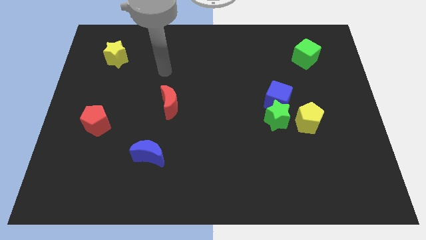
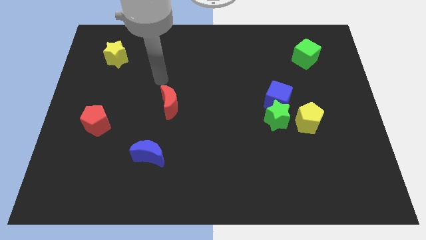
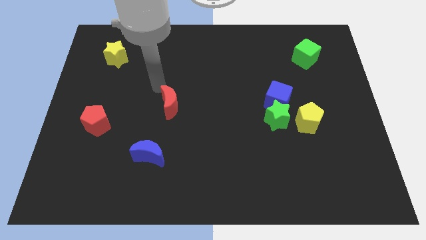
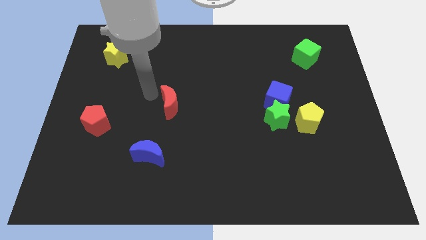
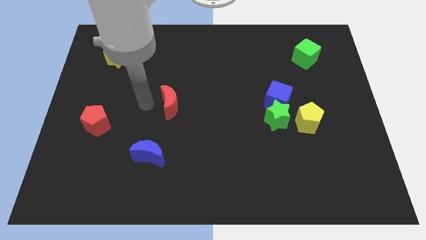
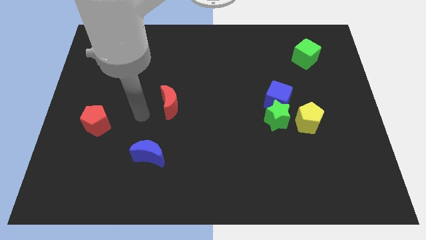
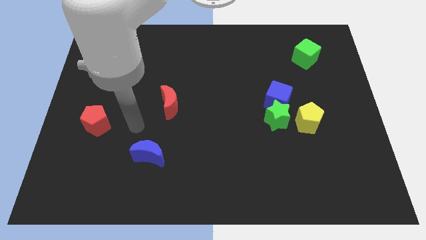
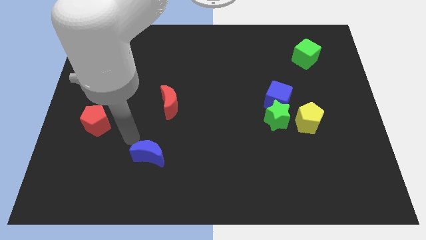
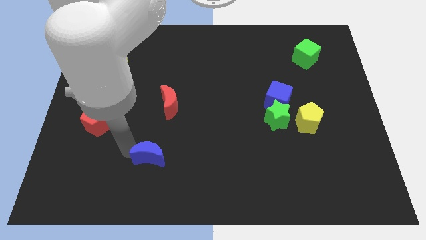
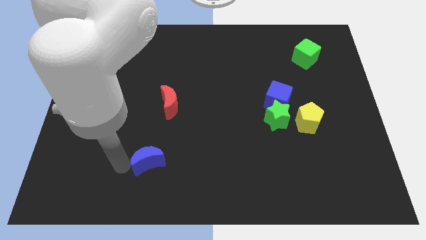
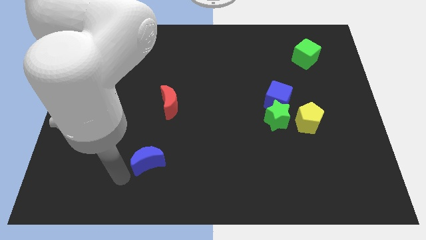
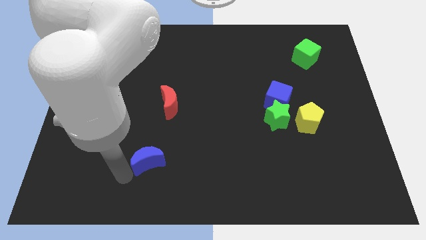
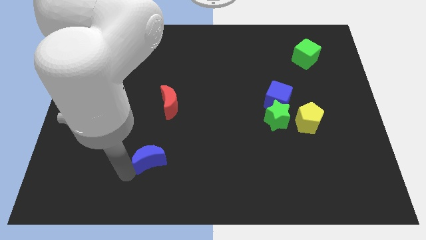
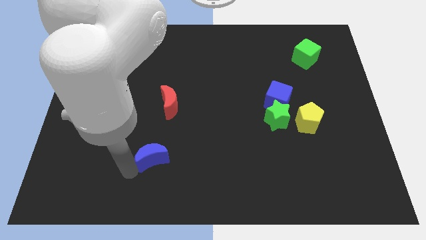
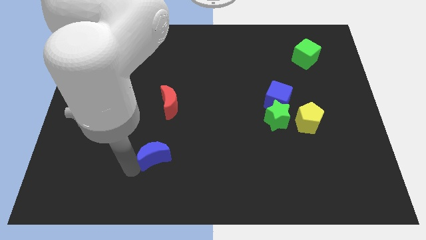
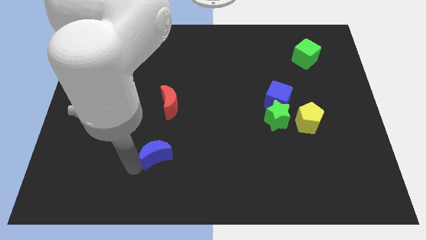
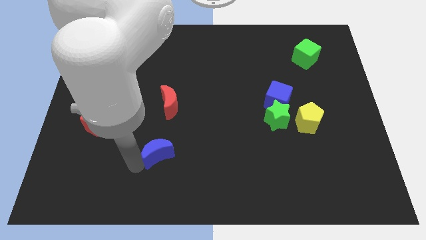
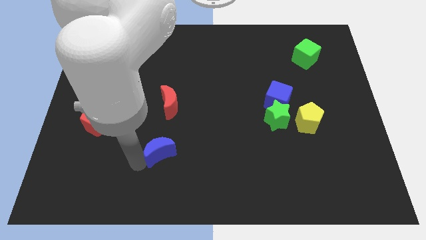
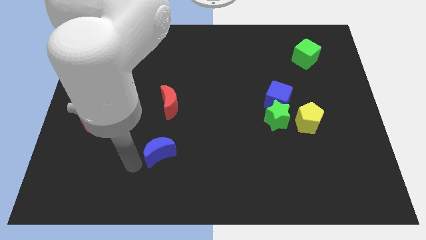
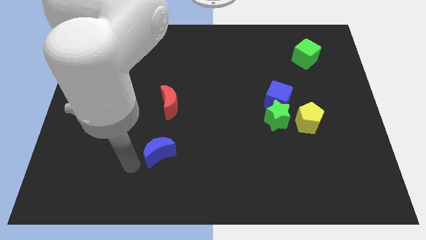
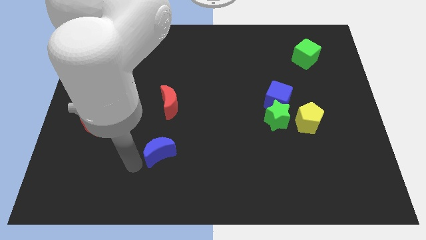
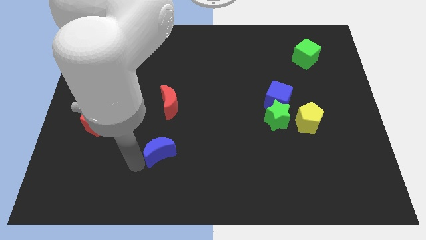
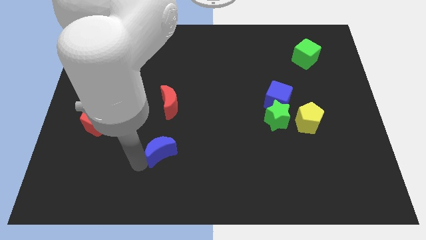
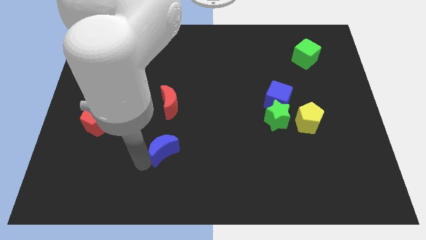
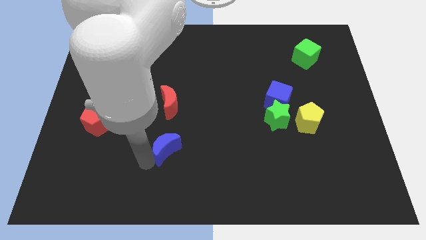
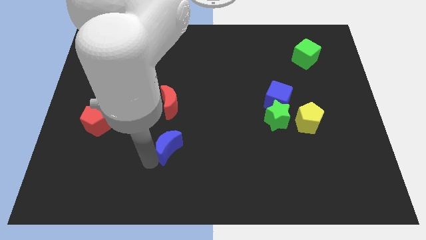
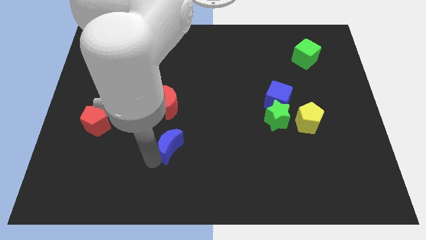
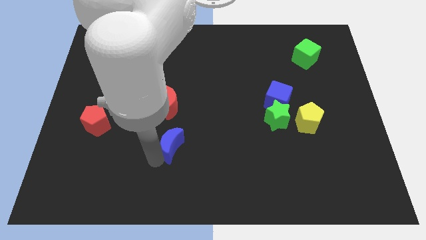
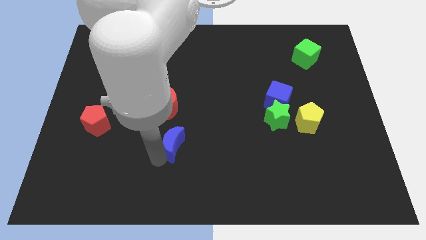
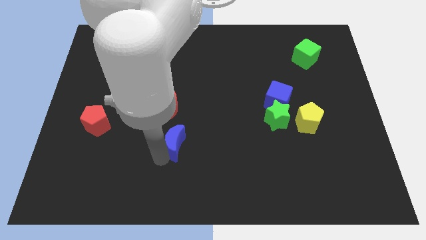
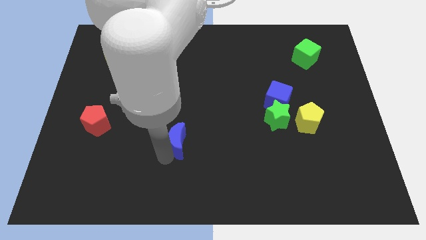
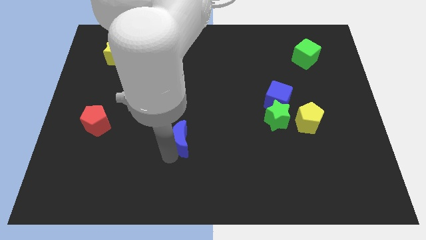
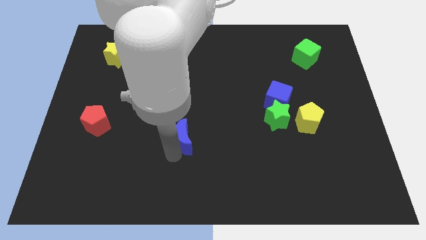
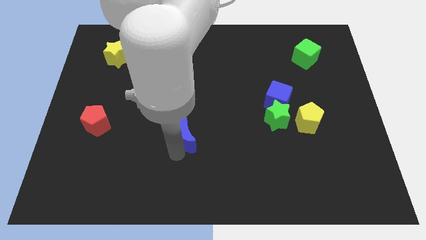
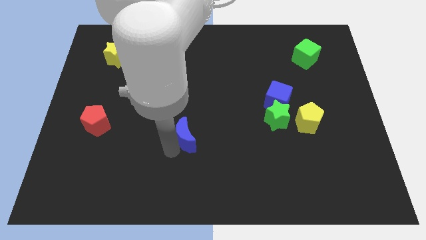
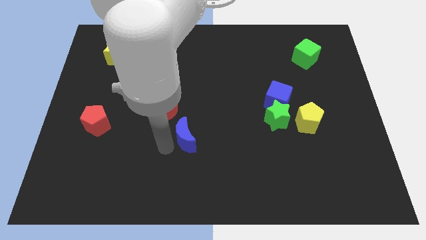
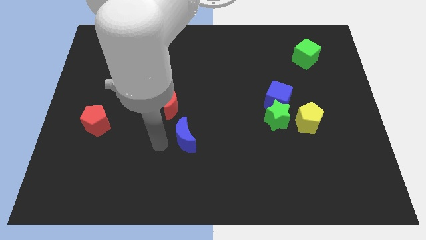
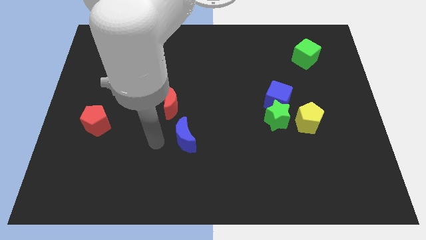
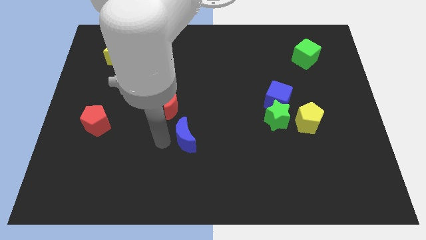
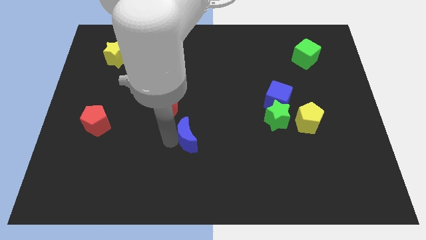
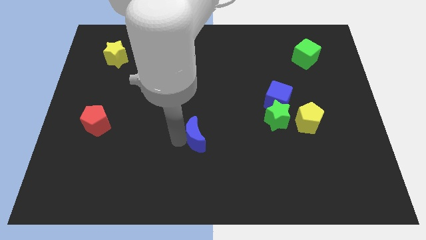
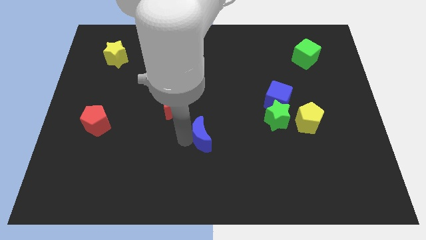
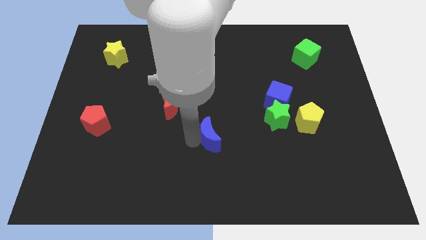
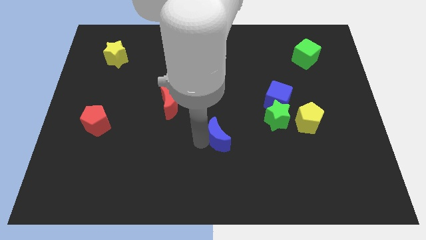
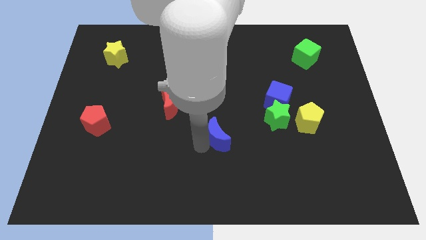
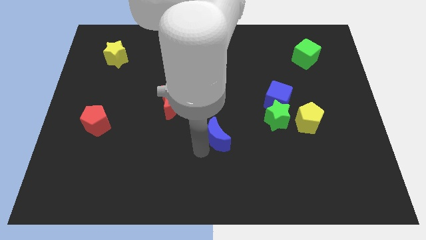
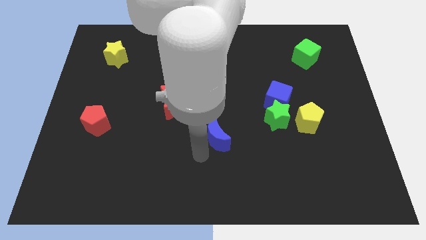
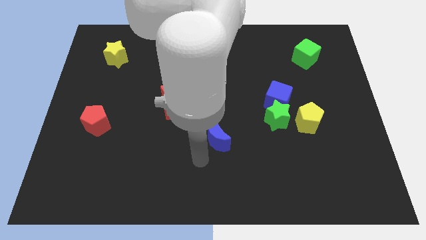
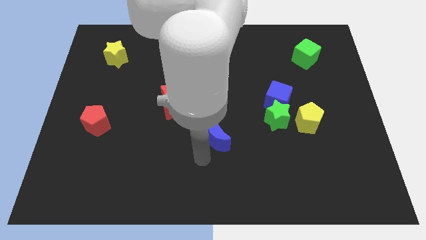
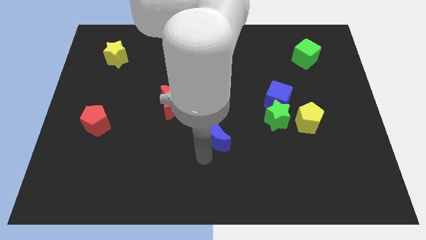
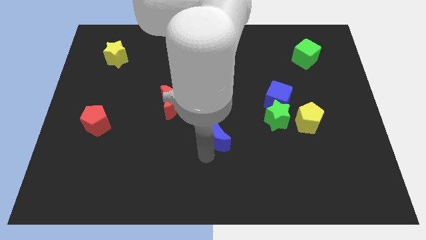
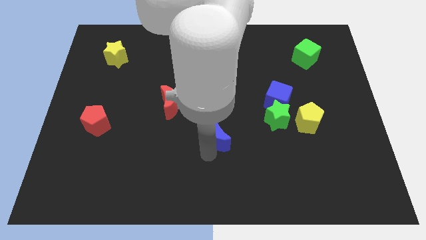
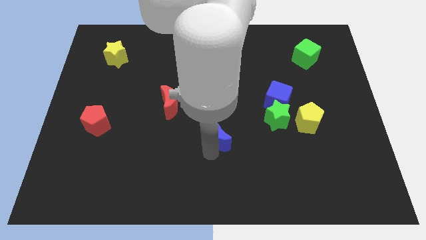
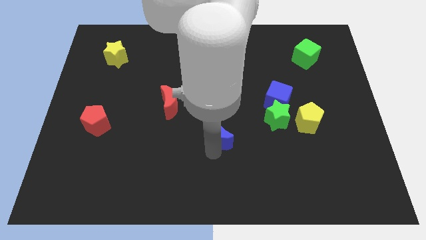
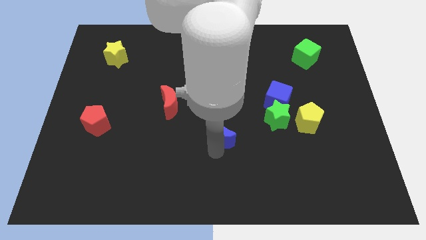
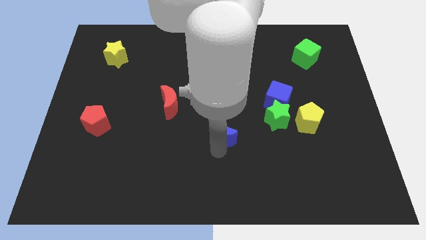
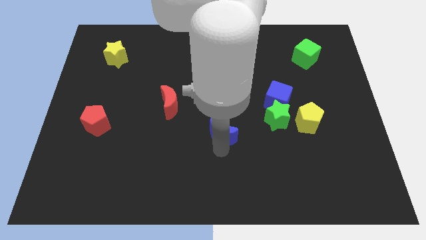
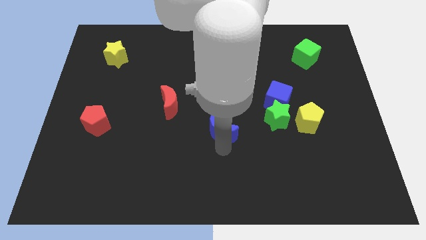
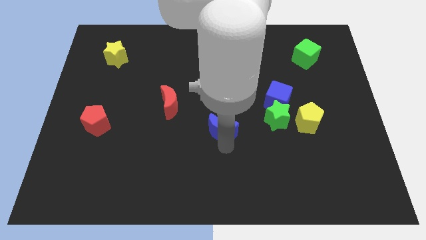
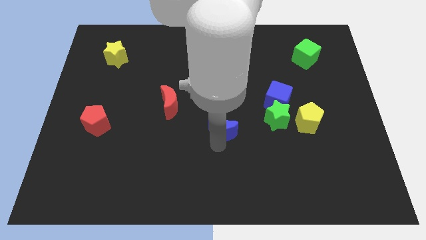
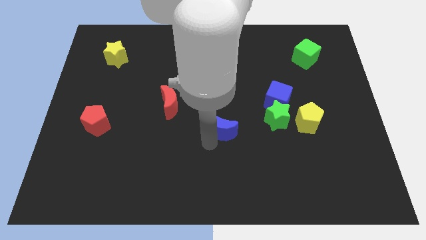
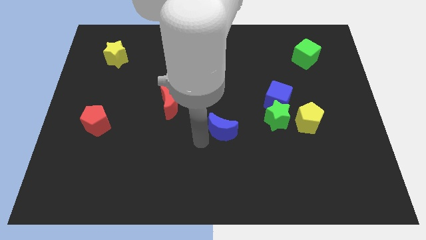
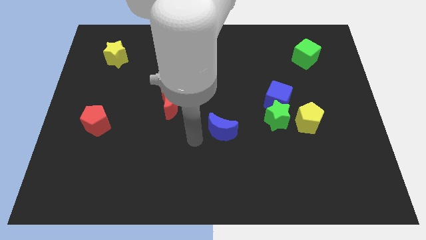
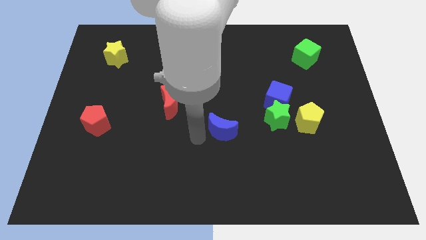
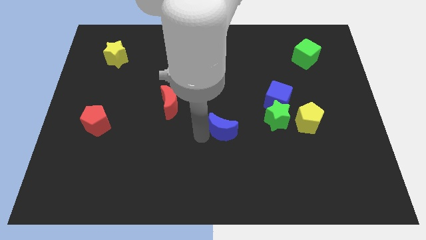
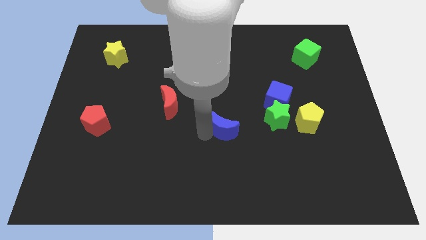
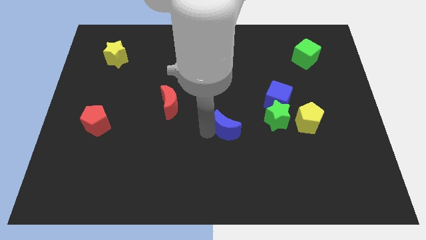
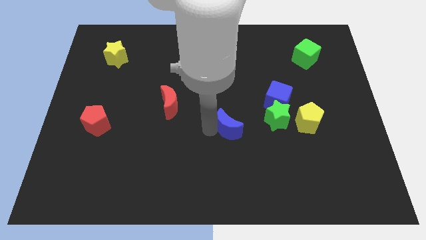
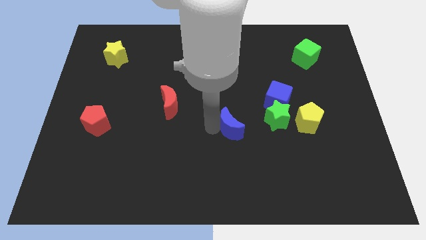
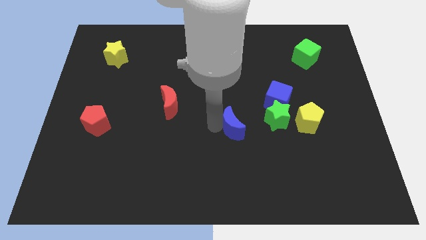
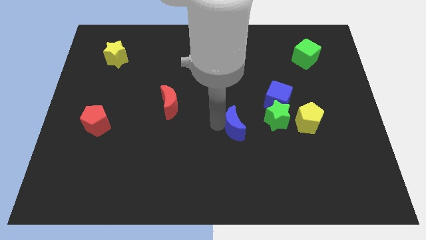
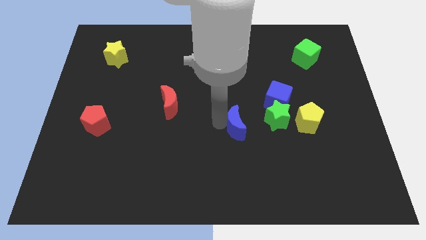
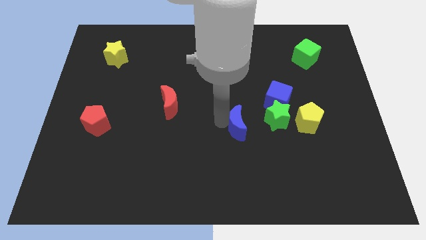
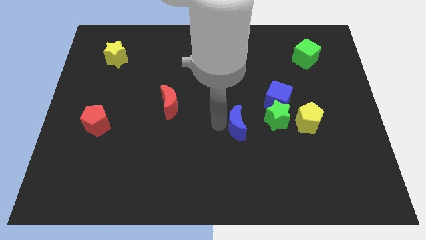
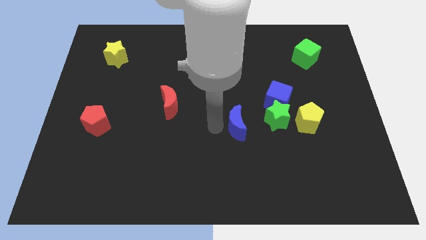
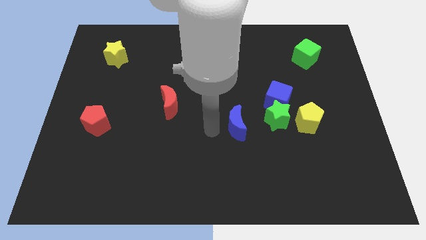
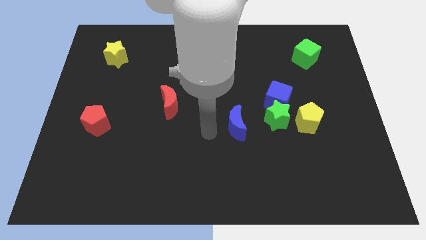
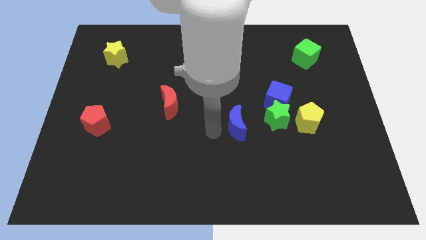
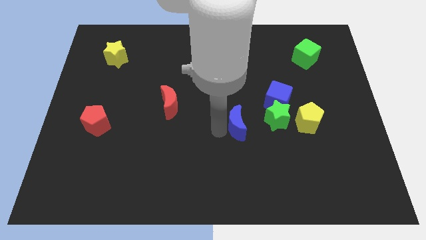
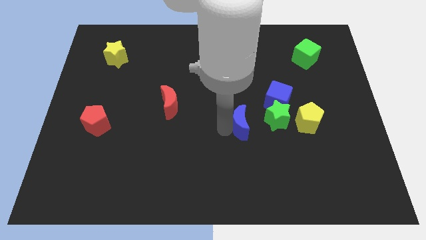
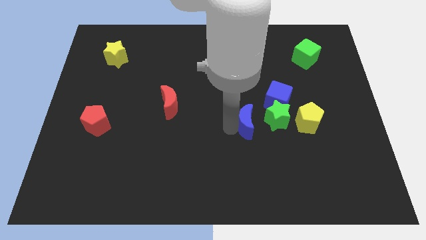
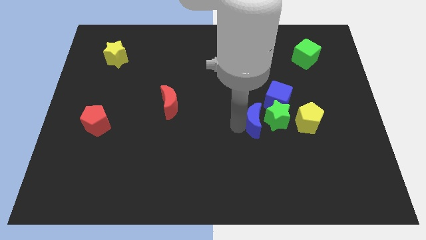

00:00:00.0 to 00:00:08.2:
slide the blue moon to the green star
